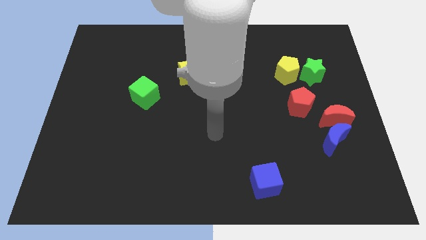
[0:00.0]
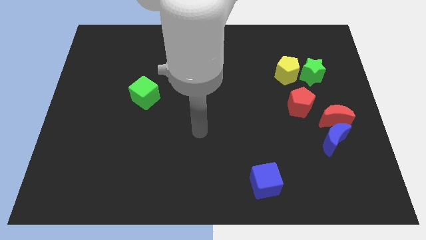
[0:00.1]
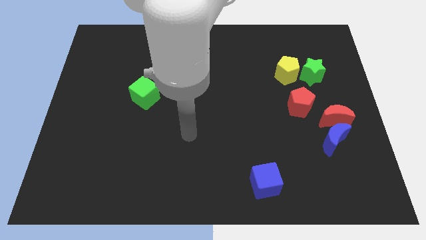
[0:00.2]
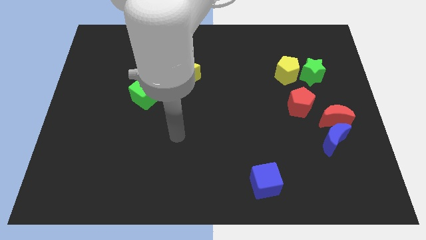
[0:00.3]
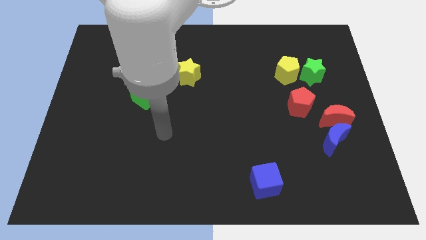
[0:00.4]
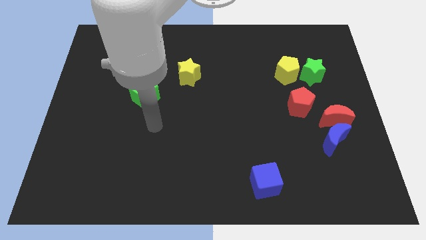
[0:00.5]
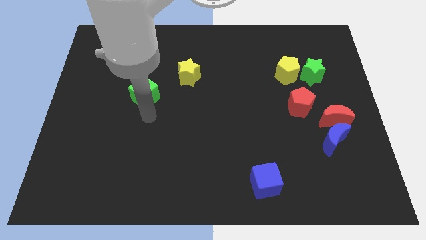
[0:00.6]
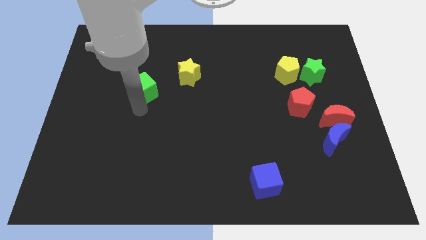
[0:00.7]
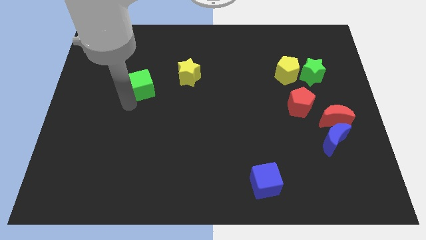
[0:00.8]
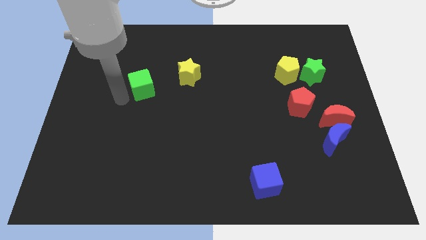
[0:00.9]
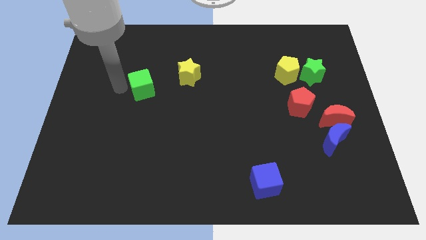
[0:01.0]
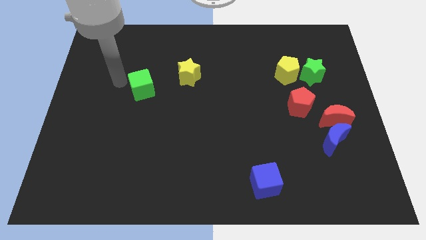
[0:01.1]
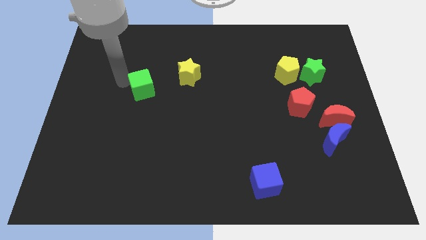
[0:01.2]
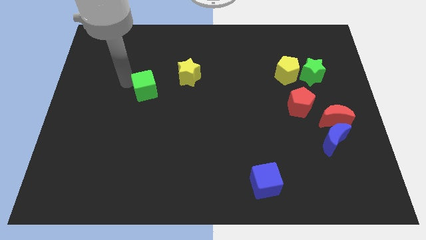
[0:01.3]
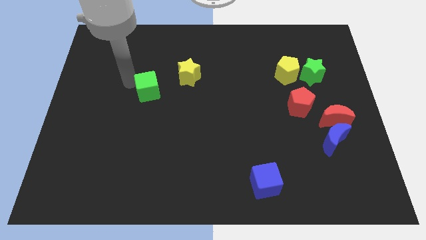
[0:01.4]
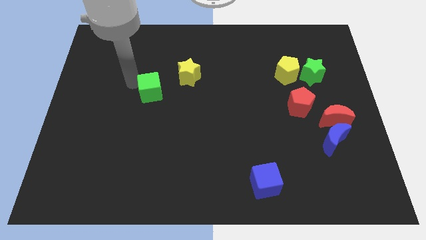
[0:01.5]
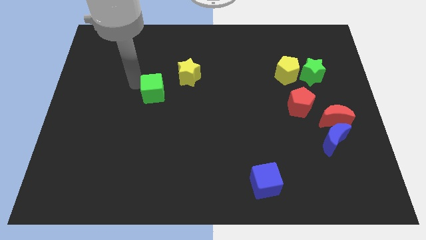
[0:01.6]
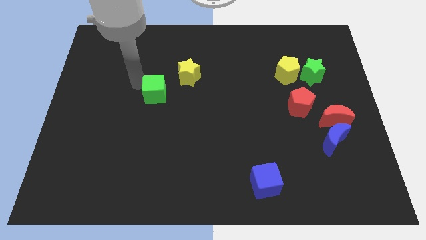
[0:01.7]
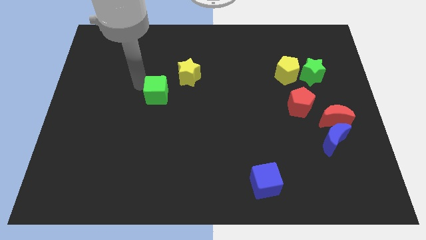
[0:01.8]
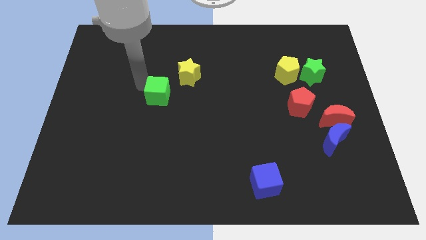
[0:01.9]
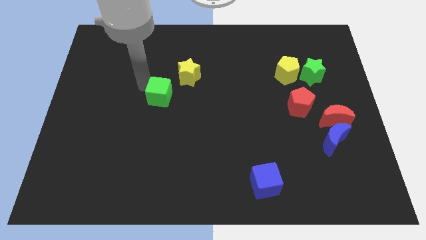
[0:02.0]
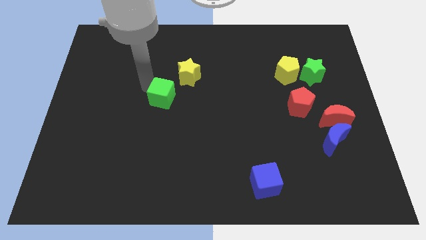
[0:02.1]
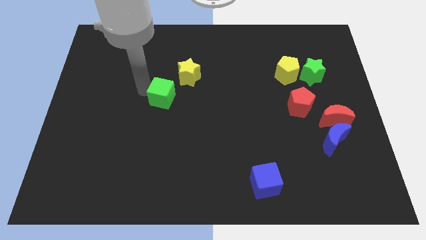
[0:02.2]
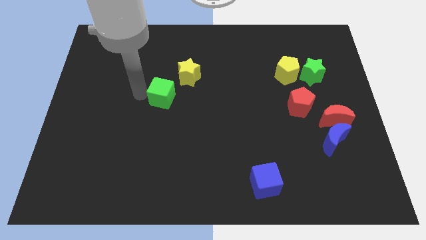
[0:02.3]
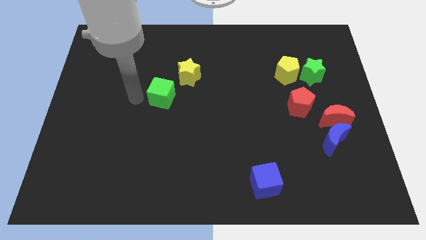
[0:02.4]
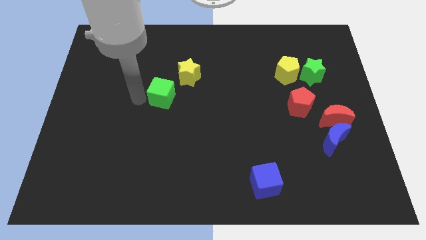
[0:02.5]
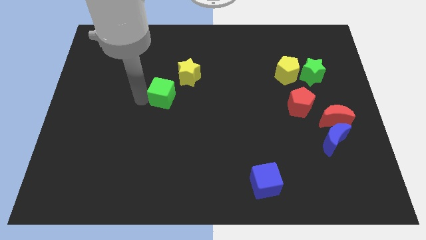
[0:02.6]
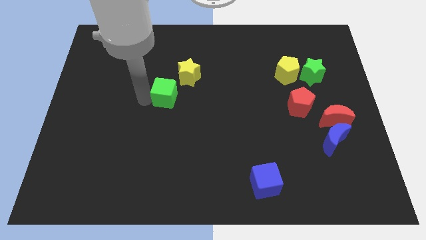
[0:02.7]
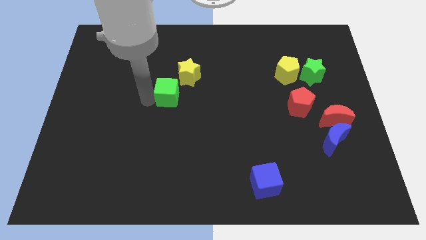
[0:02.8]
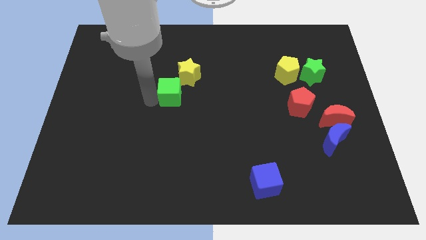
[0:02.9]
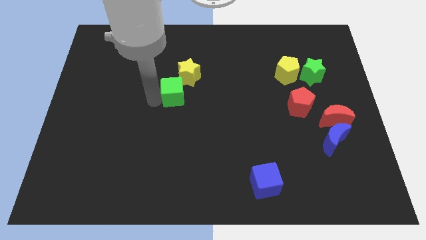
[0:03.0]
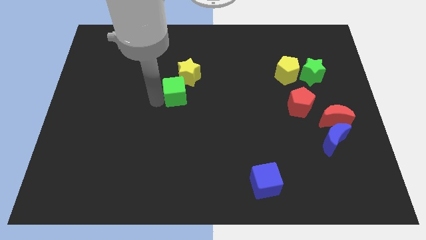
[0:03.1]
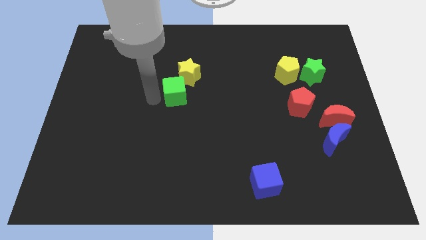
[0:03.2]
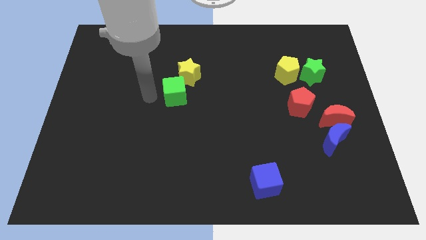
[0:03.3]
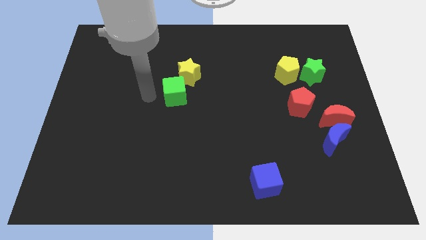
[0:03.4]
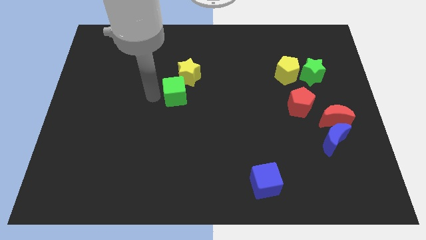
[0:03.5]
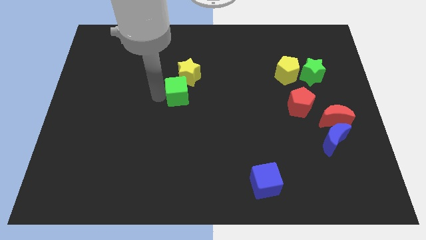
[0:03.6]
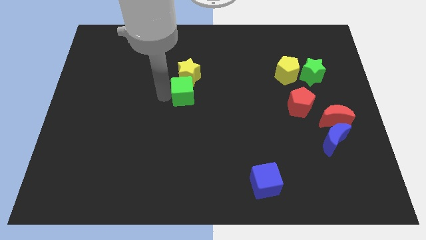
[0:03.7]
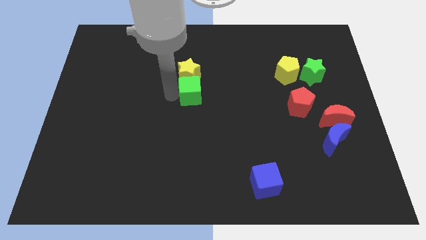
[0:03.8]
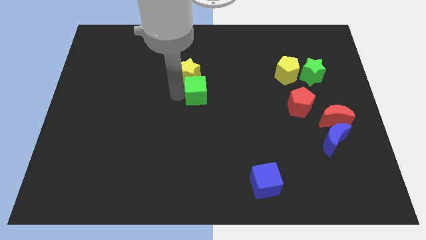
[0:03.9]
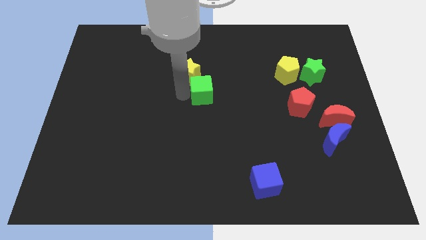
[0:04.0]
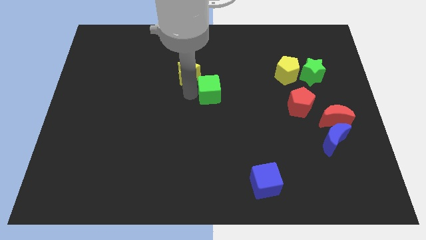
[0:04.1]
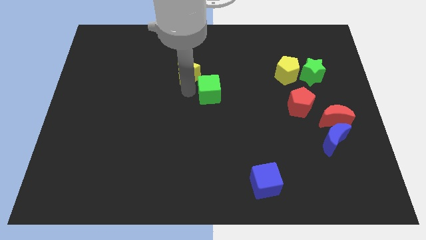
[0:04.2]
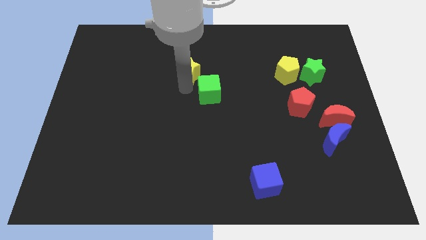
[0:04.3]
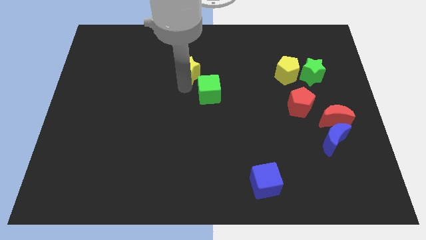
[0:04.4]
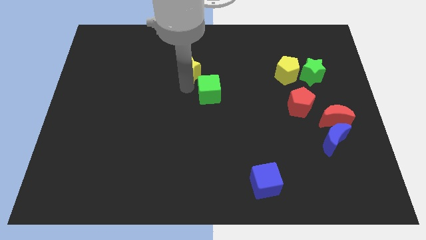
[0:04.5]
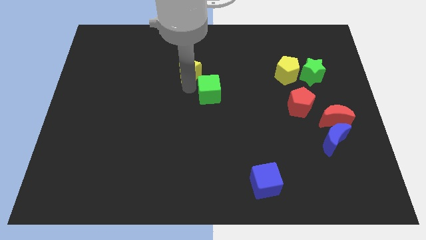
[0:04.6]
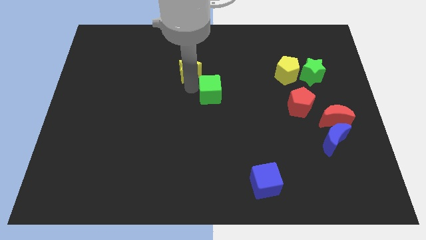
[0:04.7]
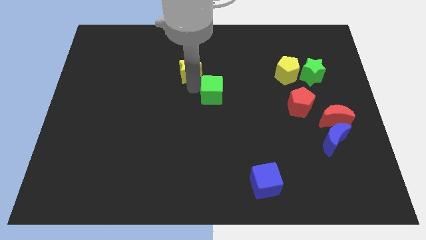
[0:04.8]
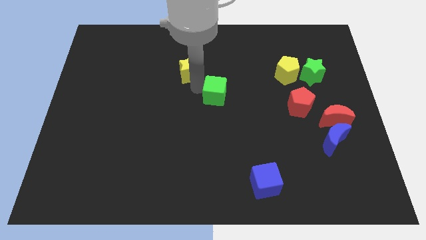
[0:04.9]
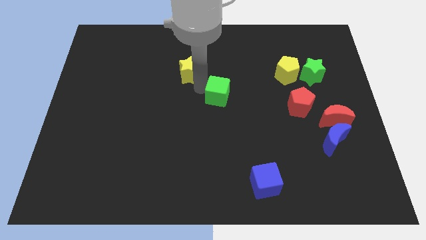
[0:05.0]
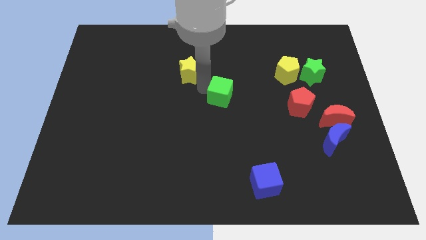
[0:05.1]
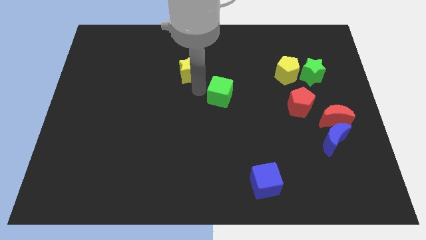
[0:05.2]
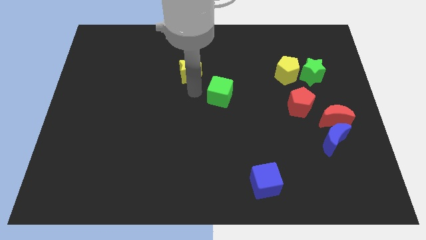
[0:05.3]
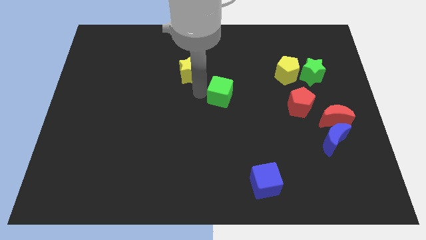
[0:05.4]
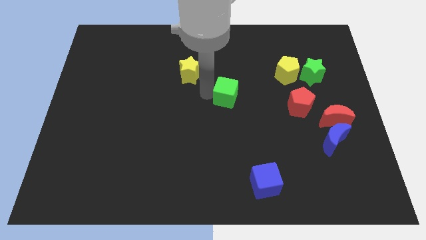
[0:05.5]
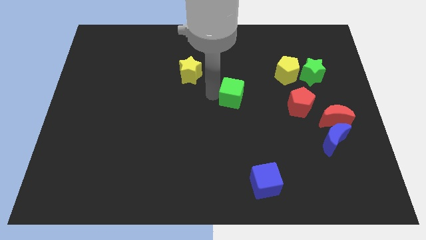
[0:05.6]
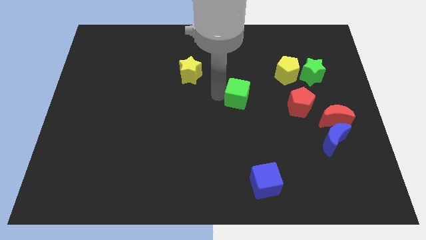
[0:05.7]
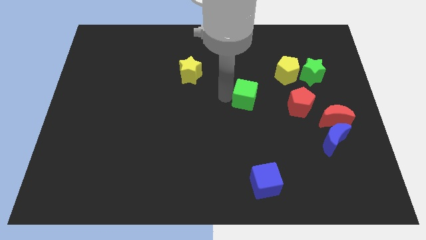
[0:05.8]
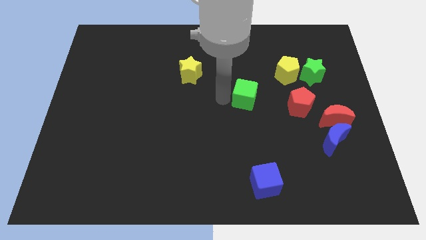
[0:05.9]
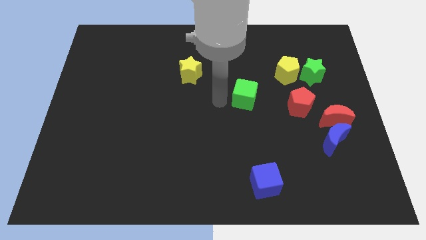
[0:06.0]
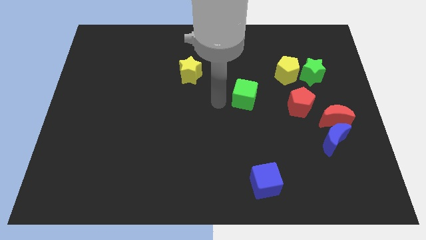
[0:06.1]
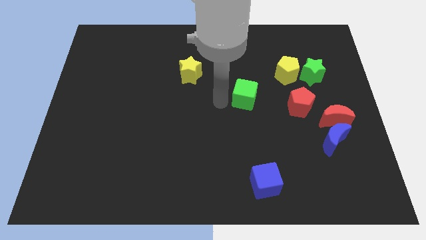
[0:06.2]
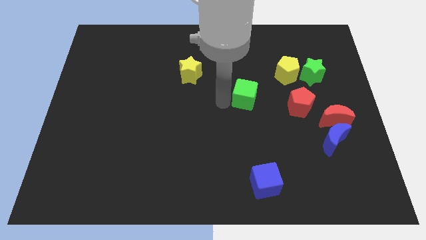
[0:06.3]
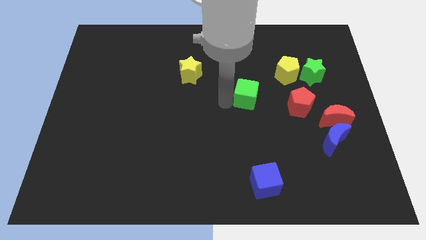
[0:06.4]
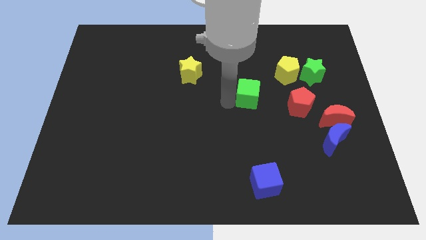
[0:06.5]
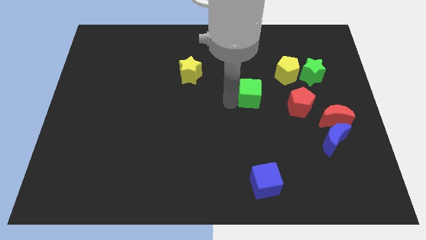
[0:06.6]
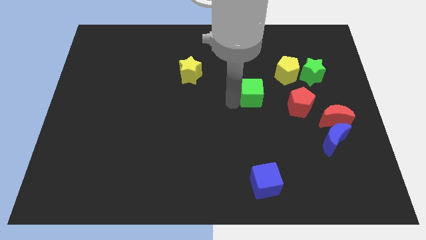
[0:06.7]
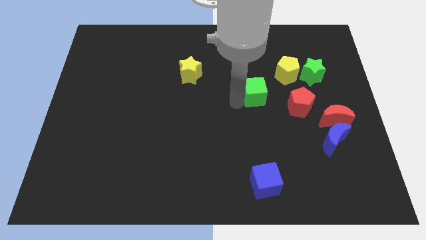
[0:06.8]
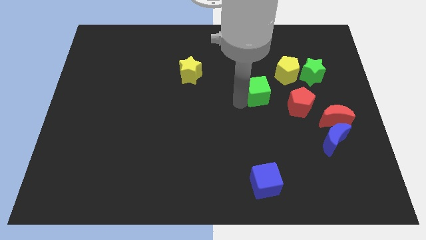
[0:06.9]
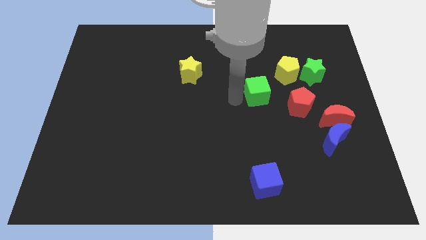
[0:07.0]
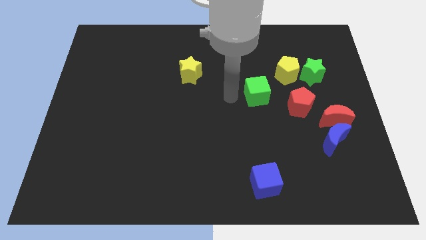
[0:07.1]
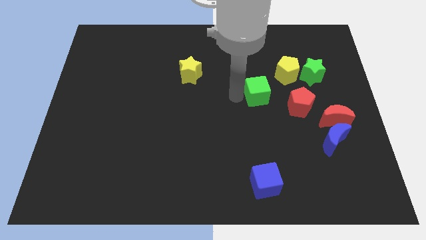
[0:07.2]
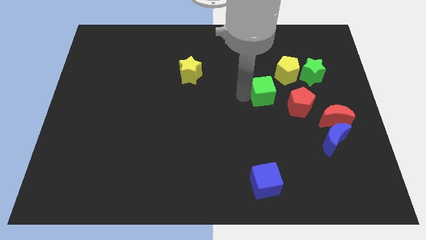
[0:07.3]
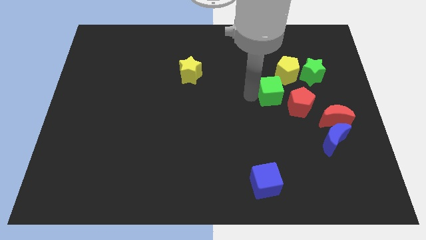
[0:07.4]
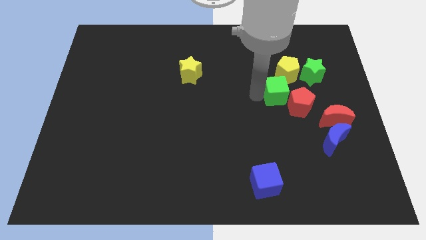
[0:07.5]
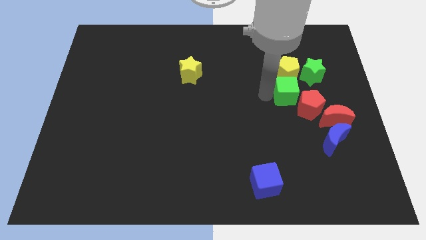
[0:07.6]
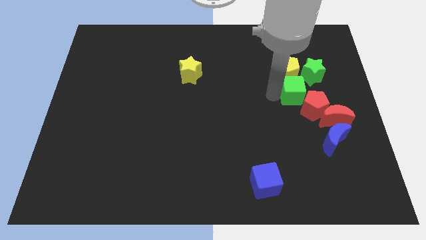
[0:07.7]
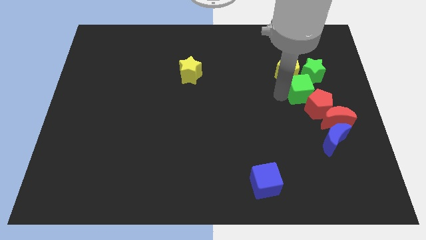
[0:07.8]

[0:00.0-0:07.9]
slide the green cube to the bottom side of the green star
